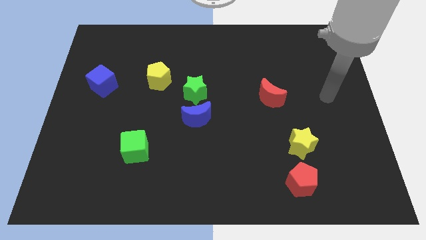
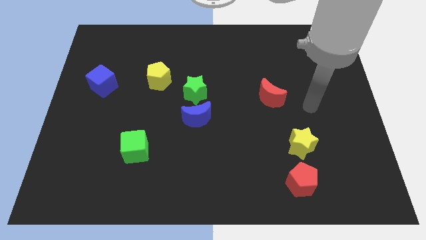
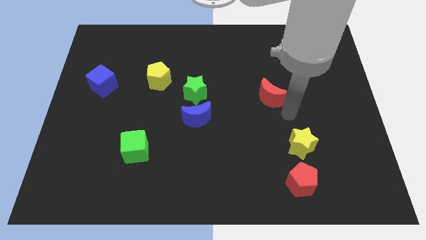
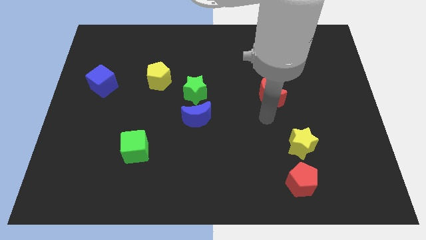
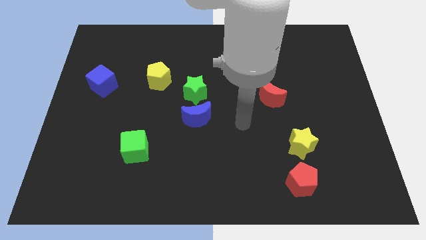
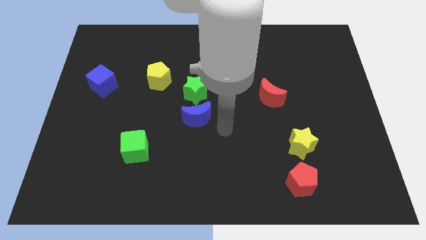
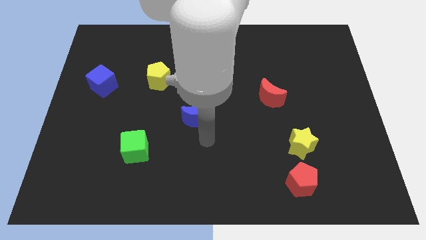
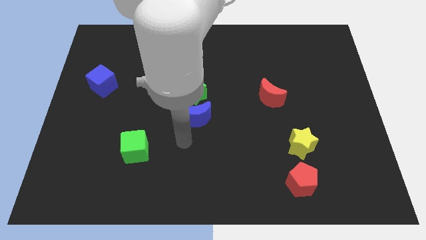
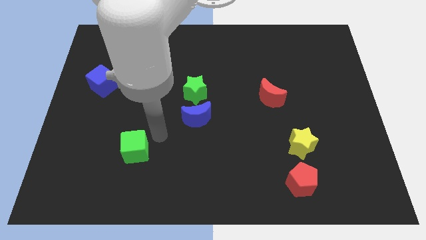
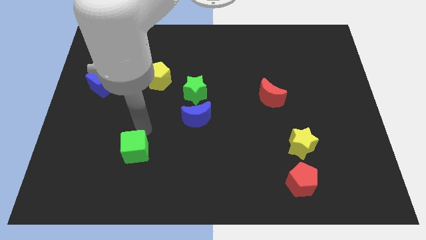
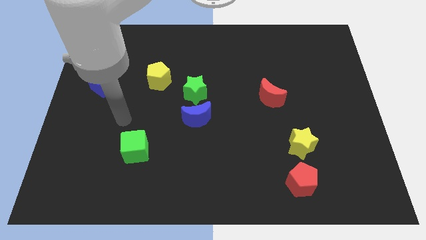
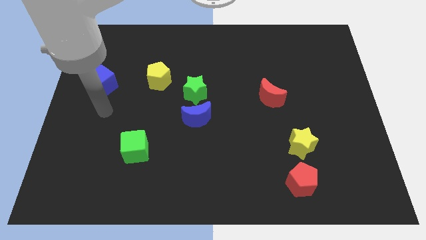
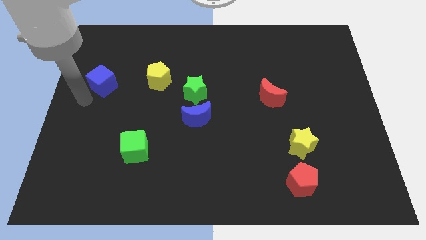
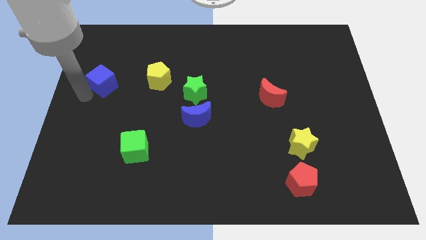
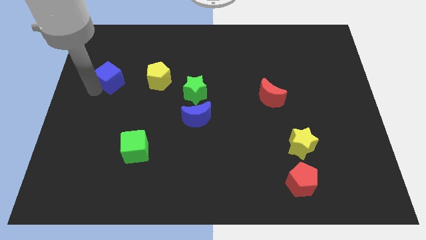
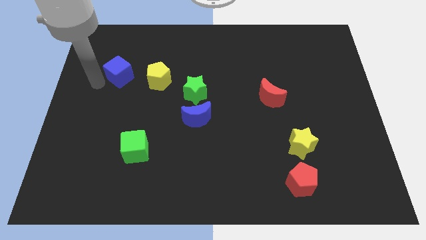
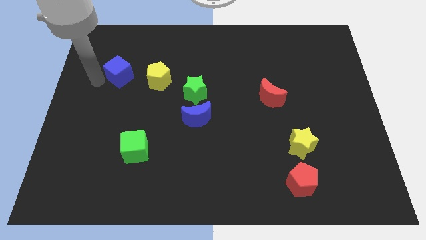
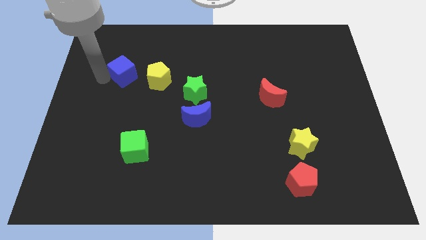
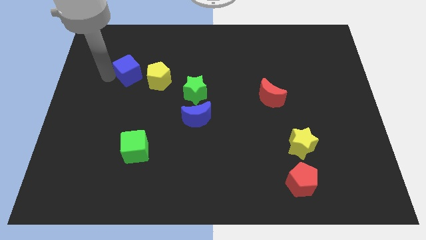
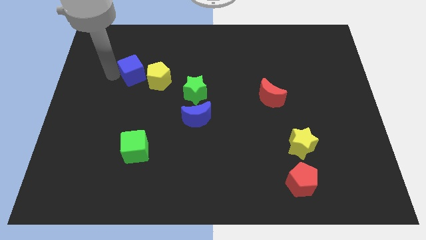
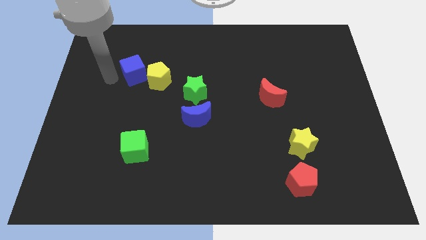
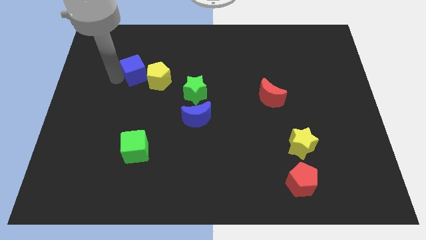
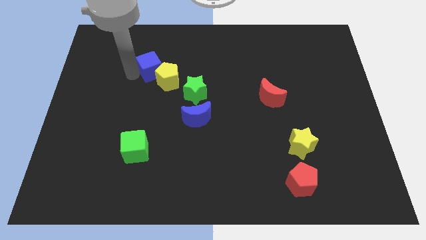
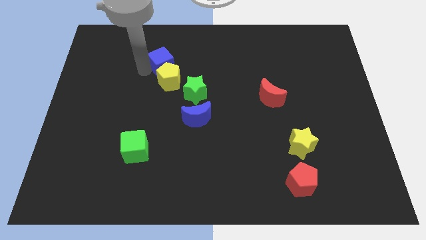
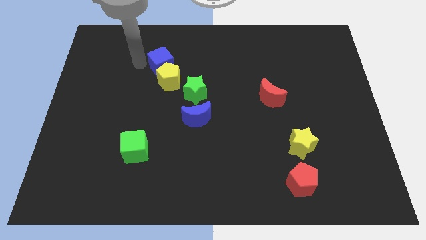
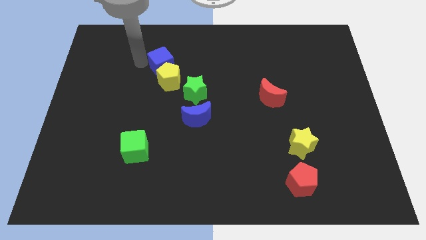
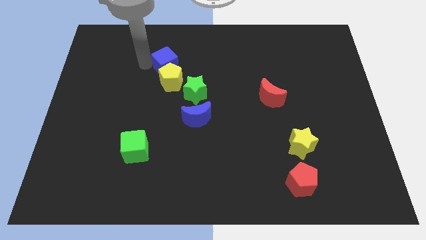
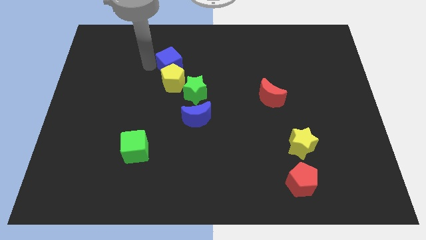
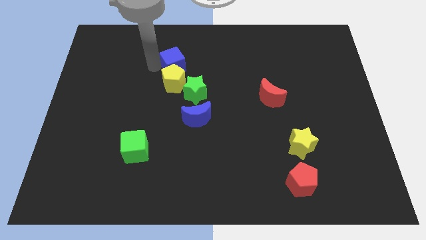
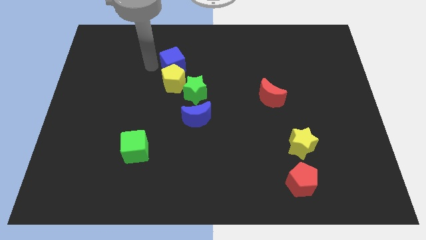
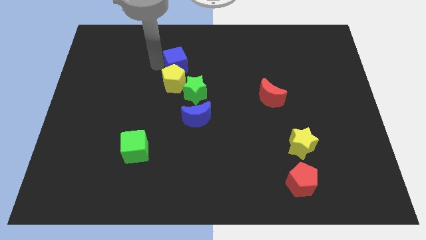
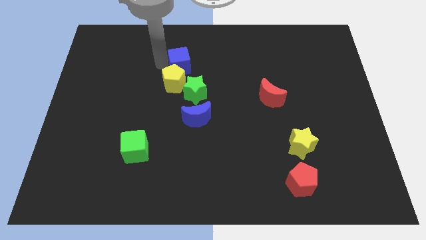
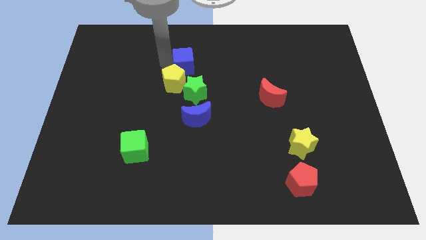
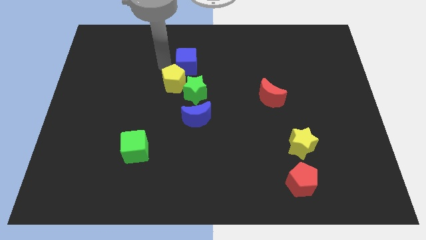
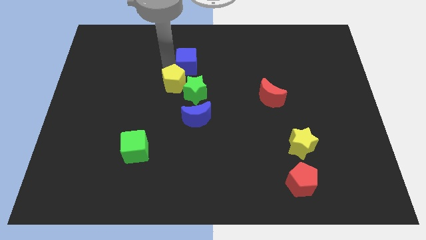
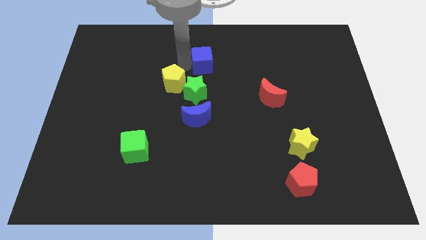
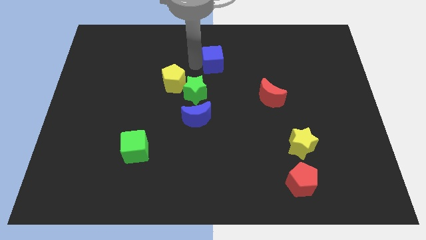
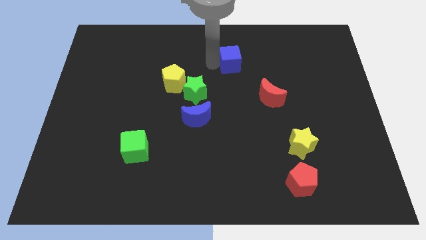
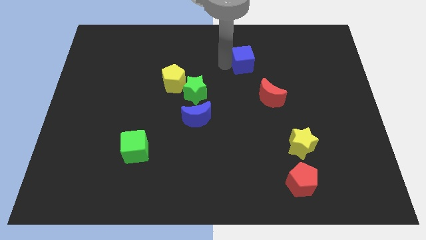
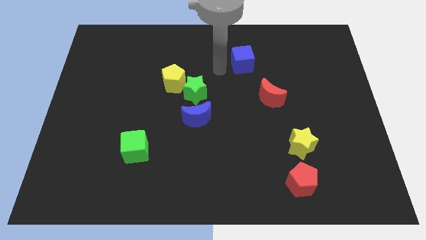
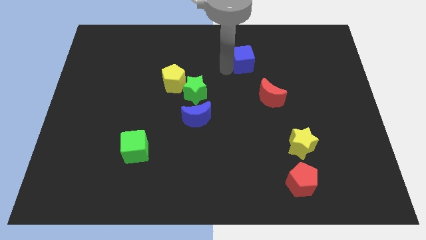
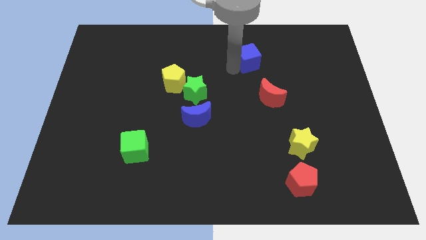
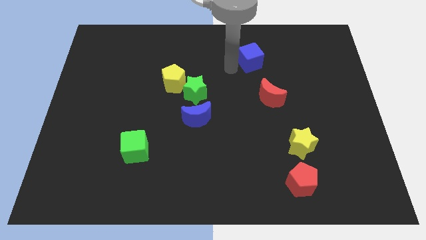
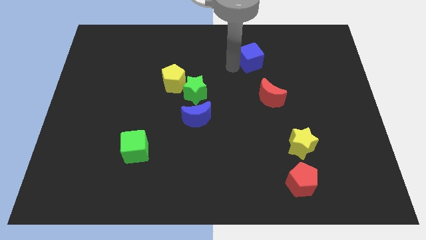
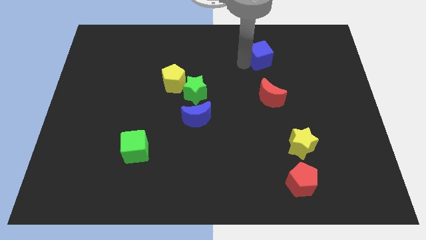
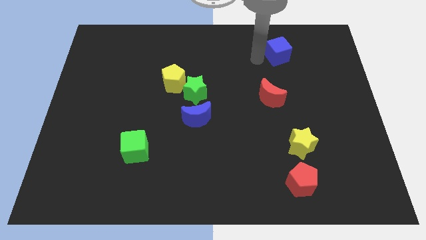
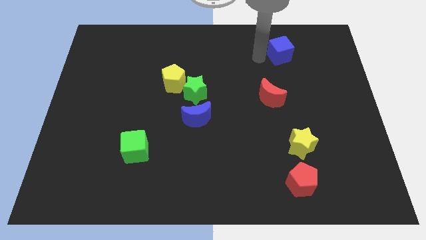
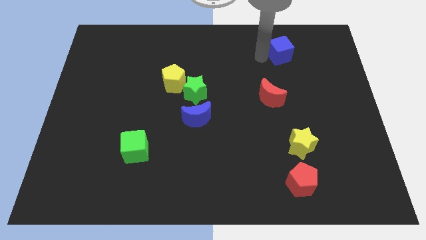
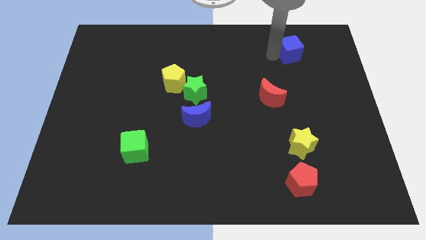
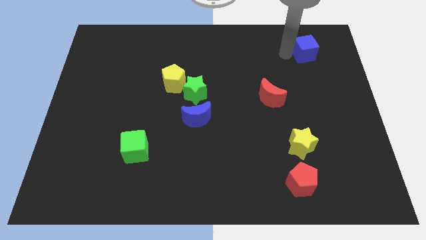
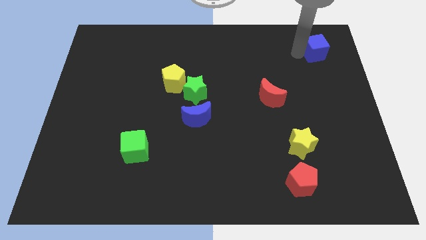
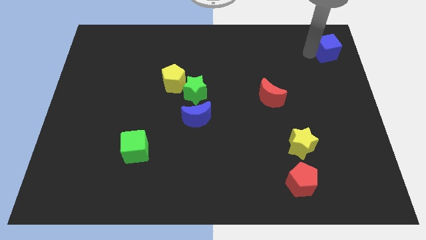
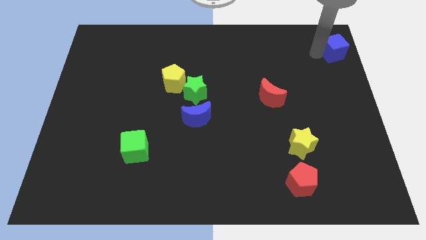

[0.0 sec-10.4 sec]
push the blue cube to the top right of the board

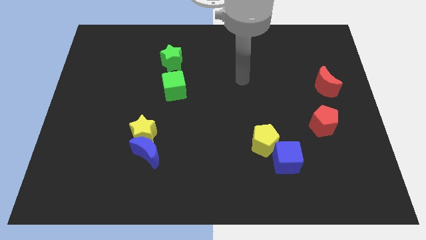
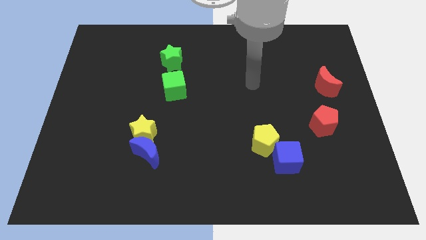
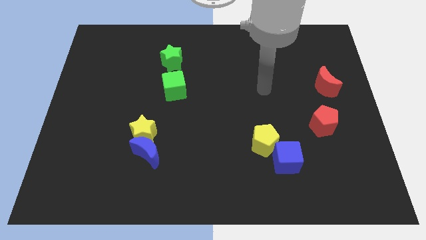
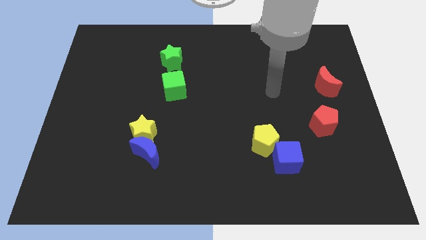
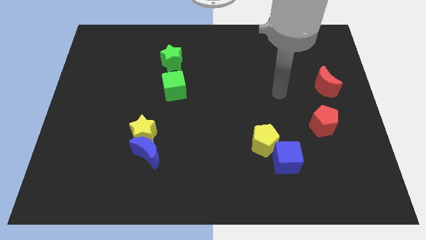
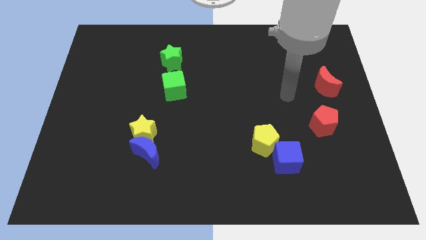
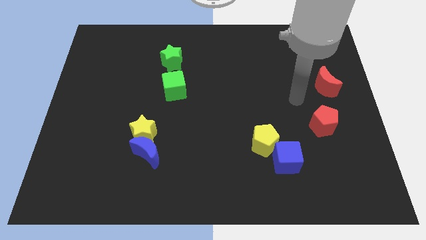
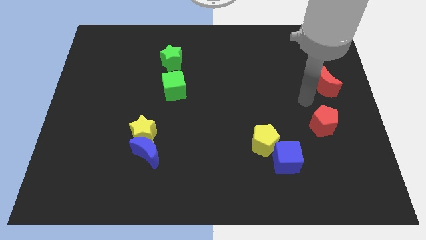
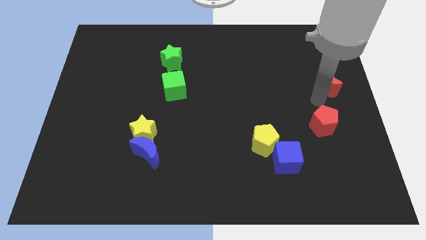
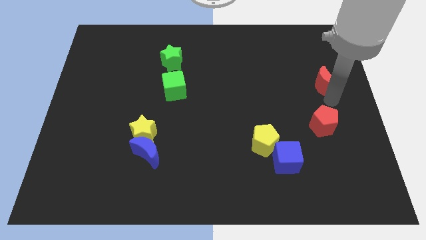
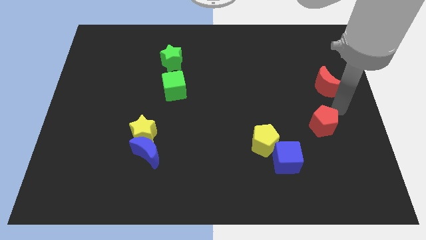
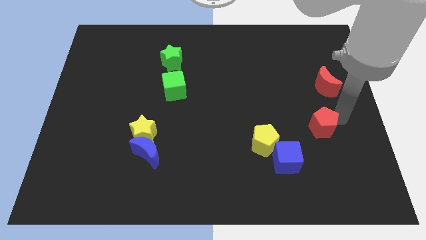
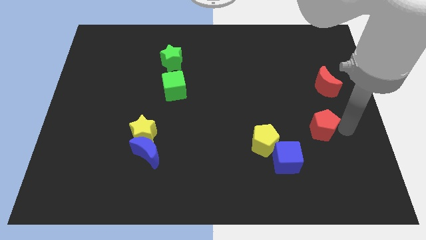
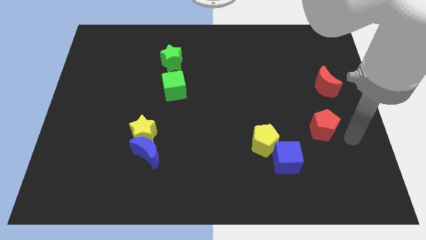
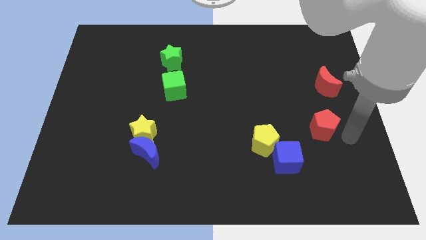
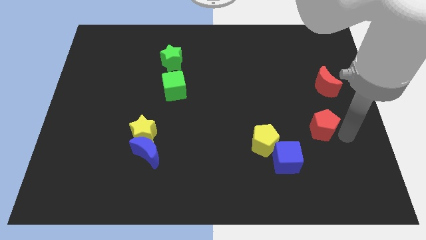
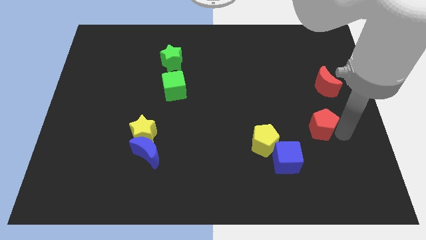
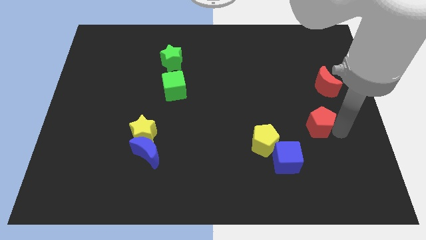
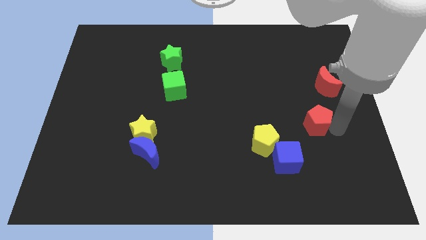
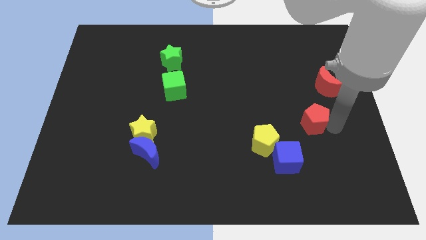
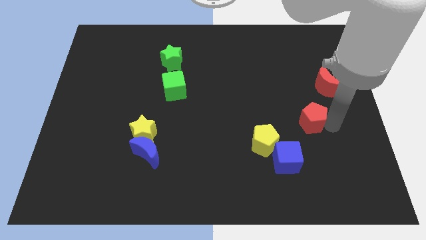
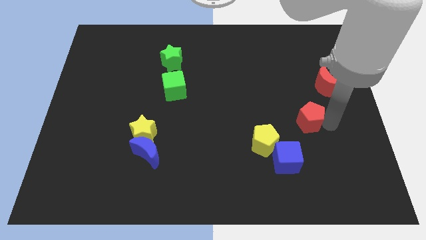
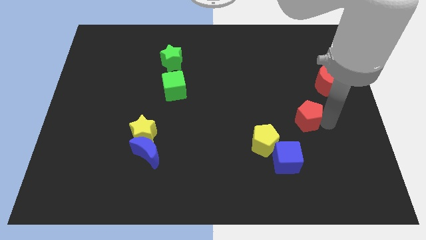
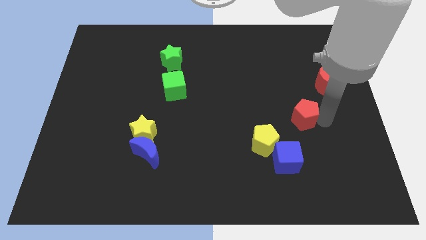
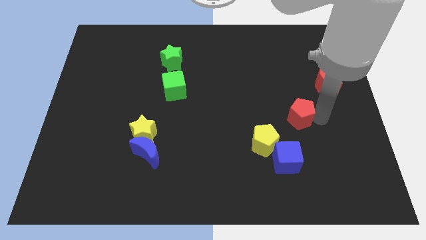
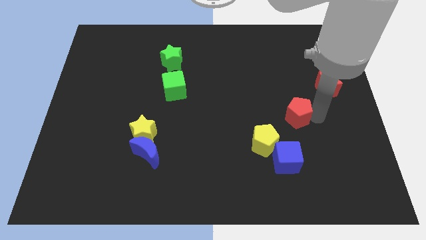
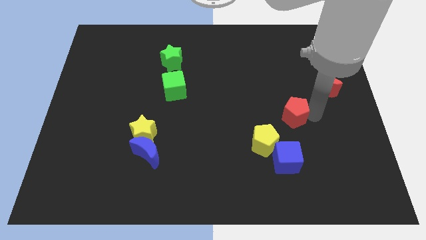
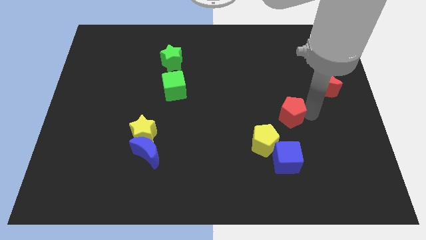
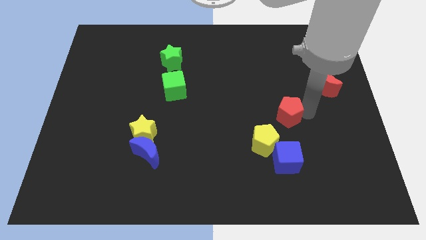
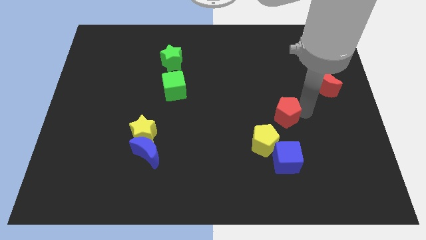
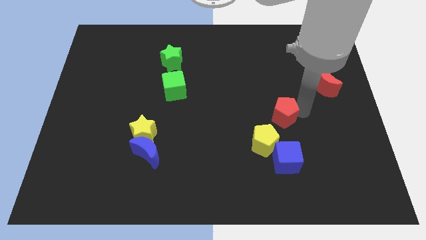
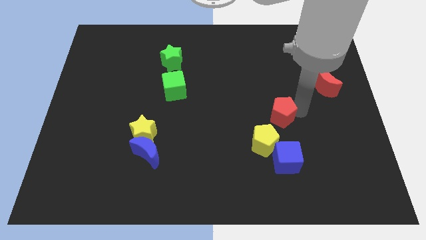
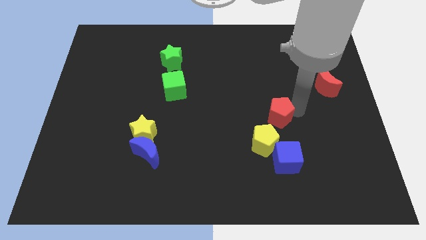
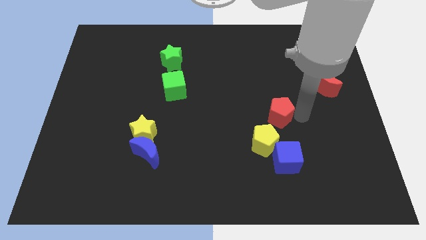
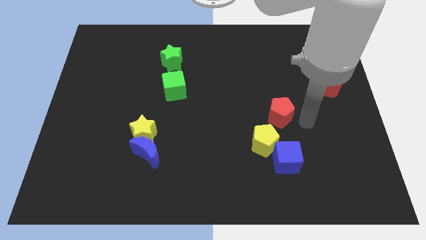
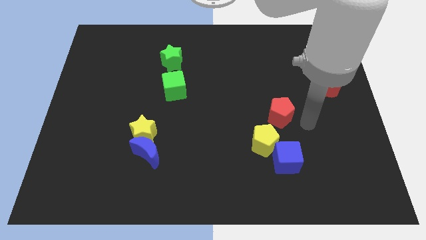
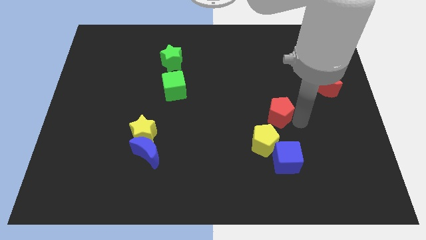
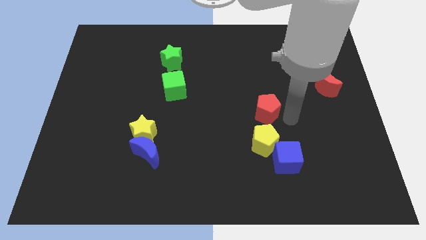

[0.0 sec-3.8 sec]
push the red pentagon to the center
